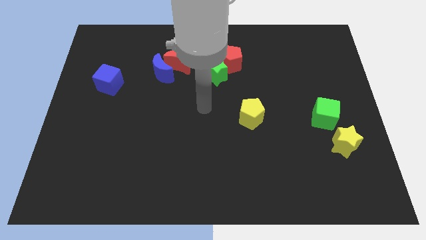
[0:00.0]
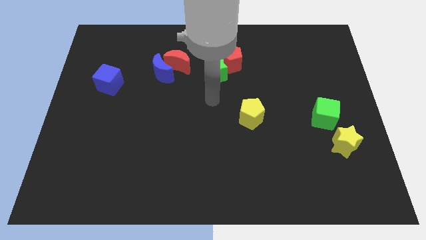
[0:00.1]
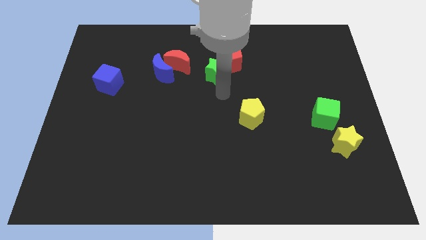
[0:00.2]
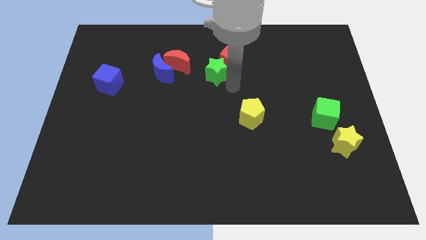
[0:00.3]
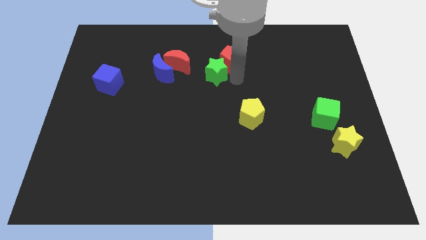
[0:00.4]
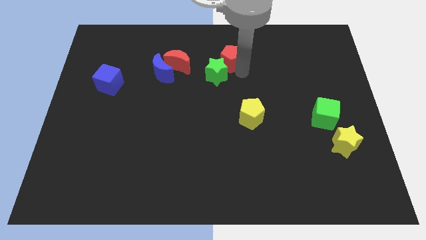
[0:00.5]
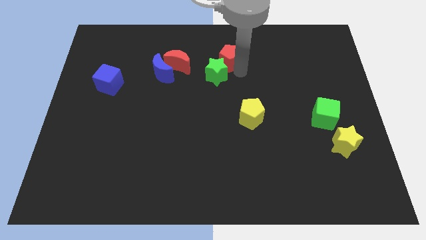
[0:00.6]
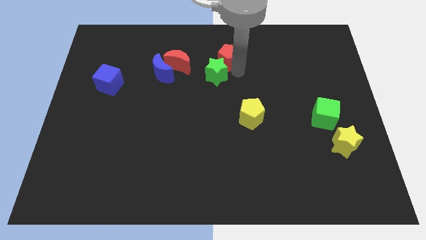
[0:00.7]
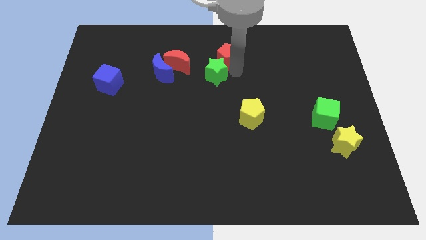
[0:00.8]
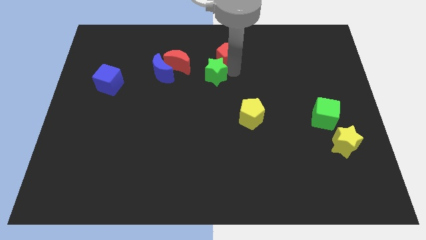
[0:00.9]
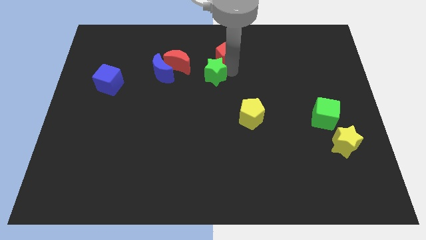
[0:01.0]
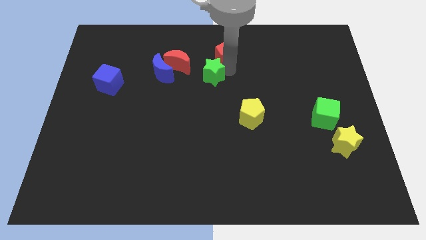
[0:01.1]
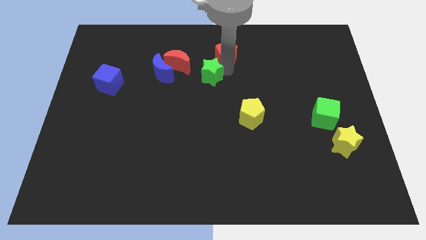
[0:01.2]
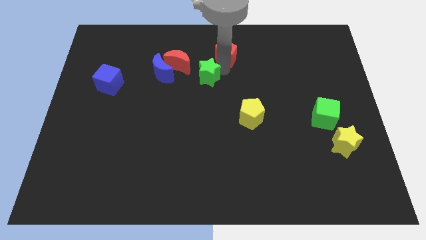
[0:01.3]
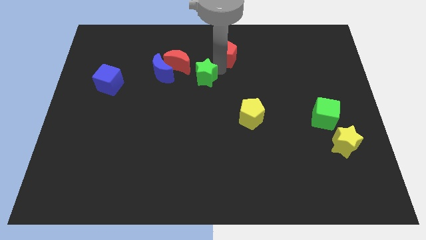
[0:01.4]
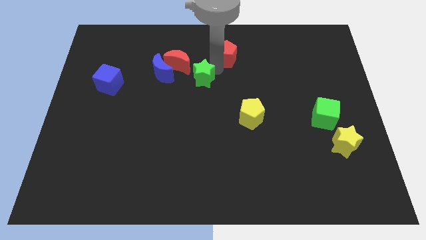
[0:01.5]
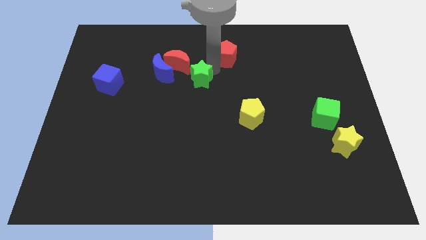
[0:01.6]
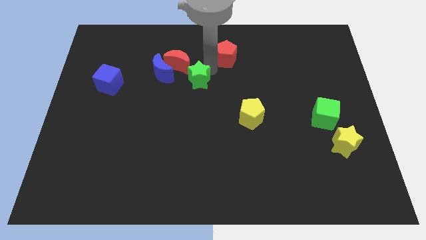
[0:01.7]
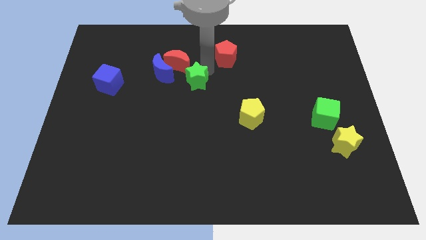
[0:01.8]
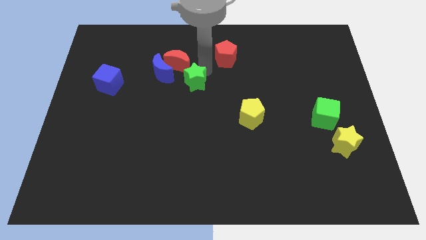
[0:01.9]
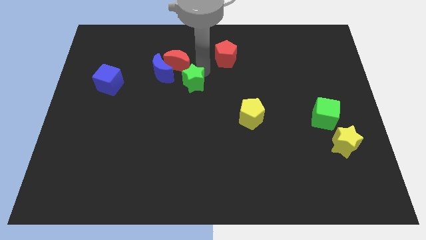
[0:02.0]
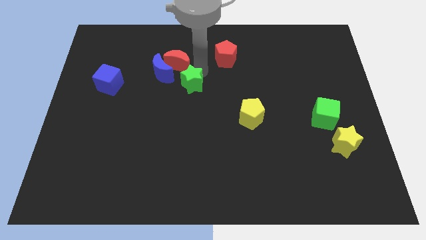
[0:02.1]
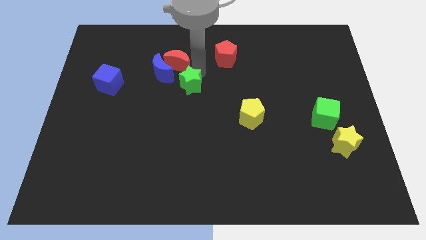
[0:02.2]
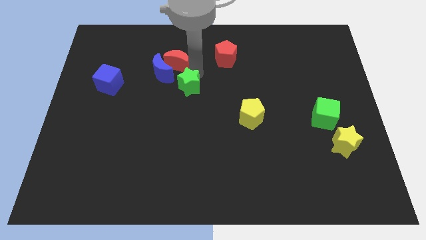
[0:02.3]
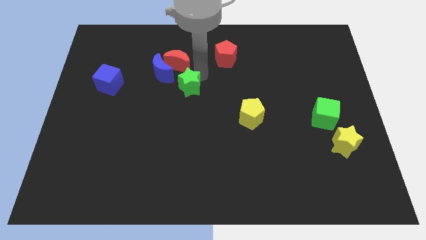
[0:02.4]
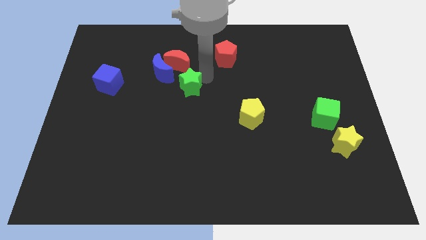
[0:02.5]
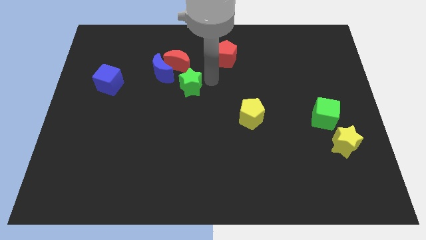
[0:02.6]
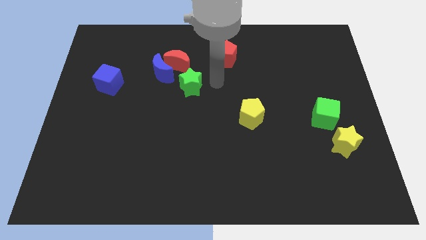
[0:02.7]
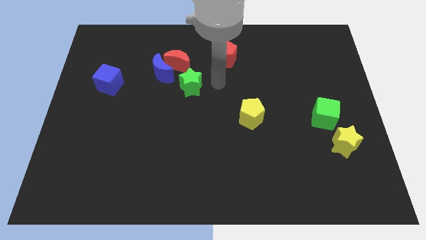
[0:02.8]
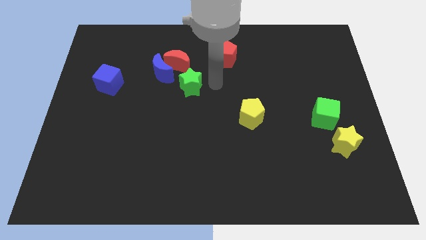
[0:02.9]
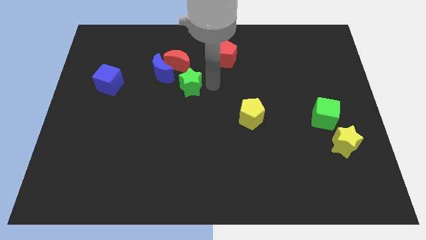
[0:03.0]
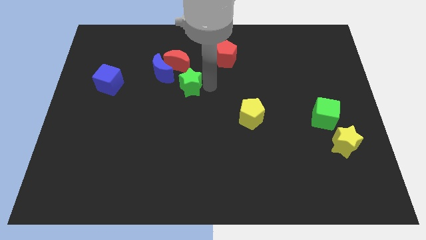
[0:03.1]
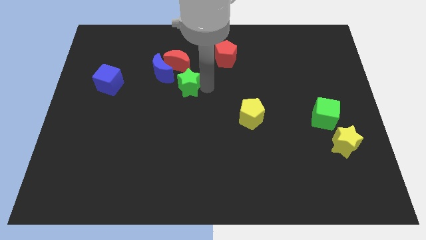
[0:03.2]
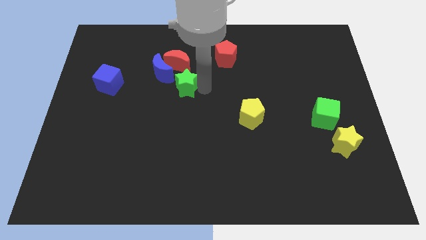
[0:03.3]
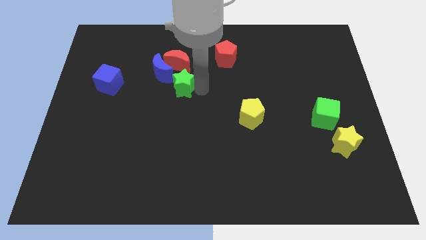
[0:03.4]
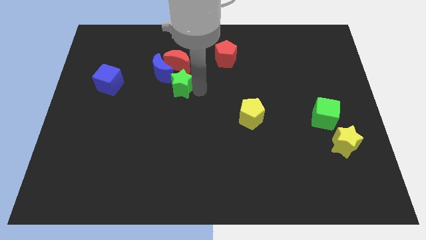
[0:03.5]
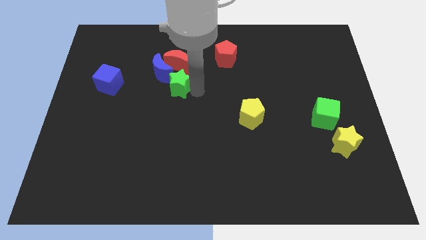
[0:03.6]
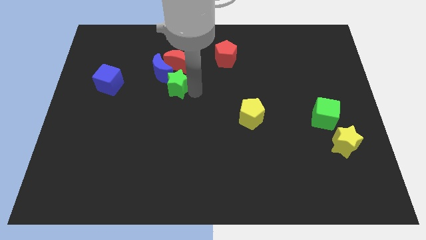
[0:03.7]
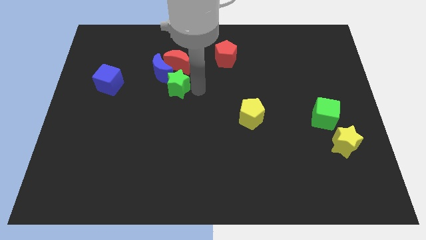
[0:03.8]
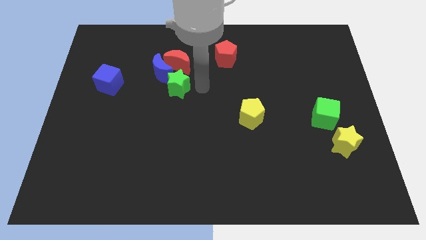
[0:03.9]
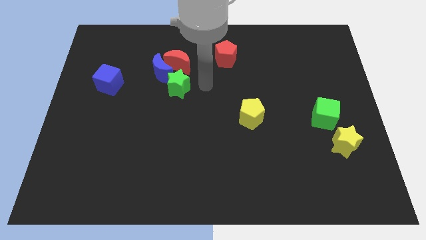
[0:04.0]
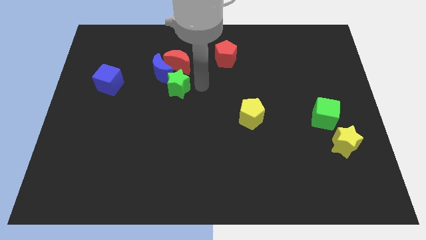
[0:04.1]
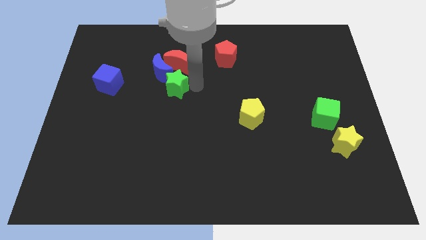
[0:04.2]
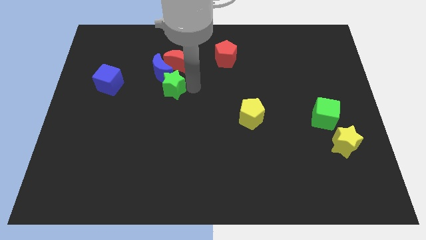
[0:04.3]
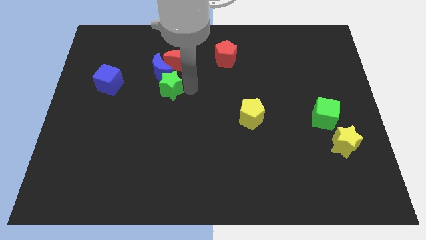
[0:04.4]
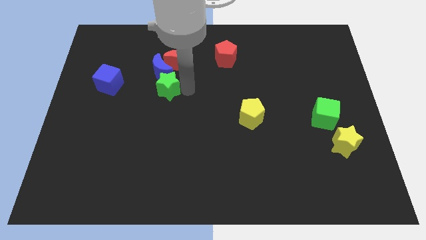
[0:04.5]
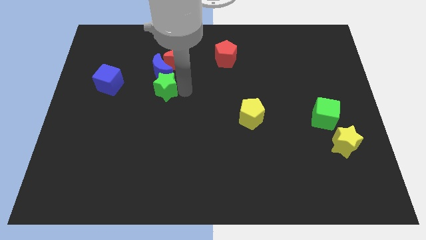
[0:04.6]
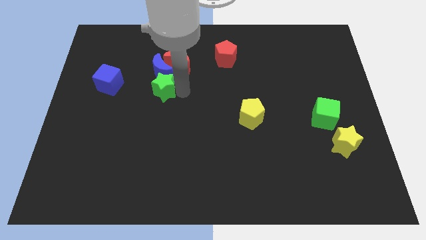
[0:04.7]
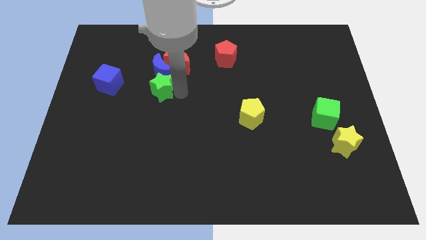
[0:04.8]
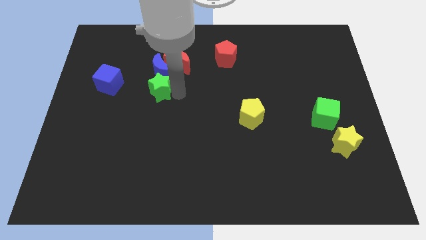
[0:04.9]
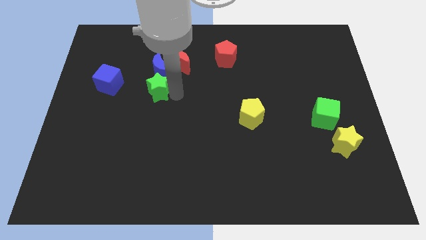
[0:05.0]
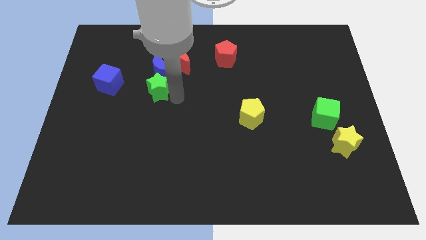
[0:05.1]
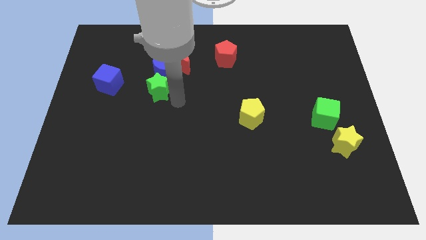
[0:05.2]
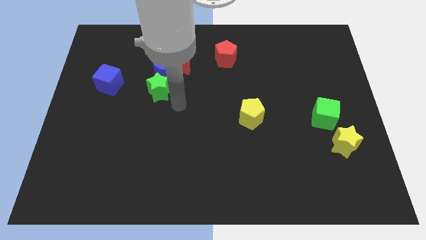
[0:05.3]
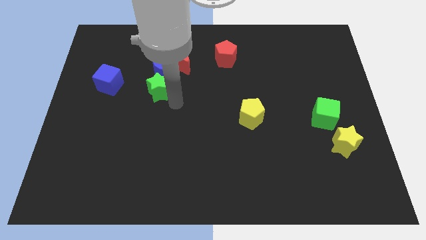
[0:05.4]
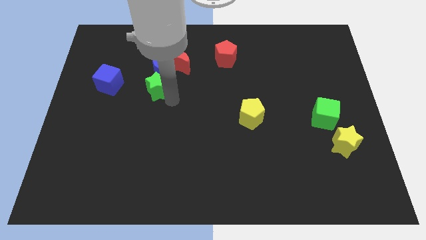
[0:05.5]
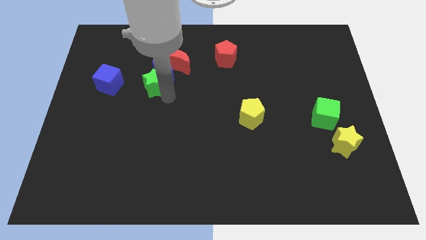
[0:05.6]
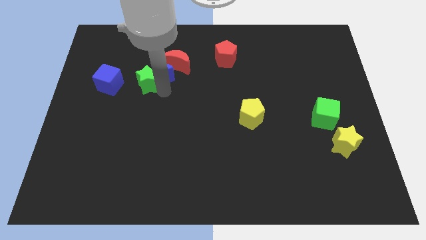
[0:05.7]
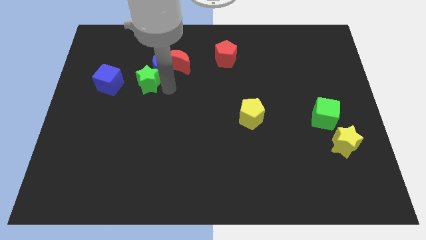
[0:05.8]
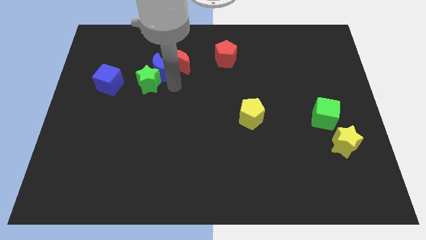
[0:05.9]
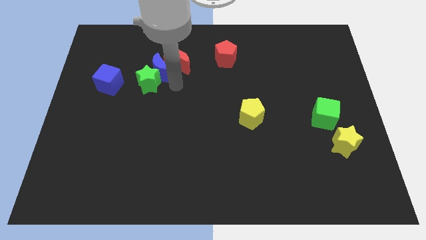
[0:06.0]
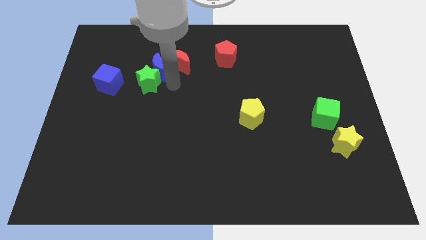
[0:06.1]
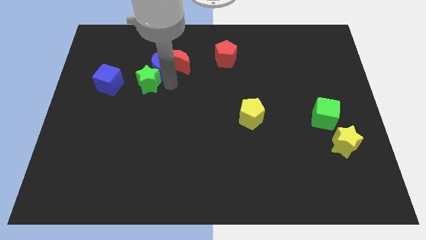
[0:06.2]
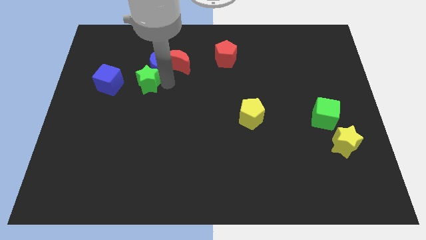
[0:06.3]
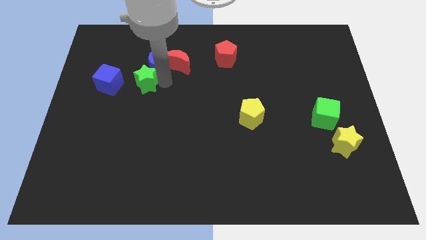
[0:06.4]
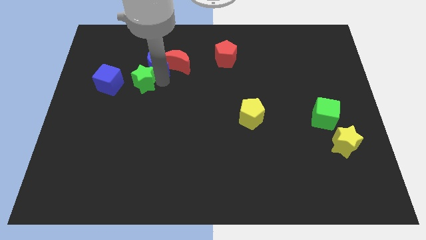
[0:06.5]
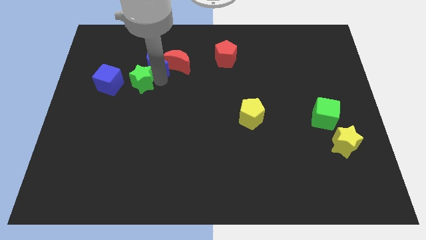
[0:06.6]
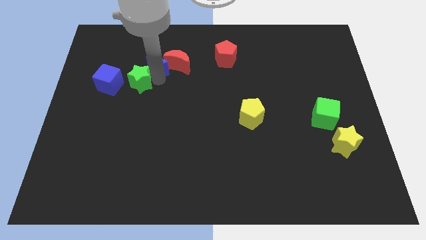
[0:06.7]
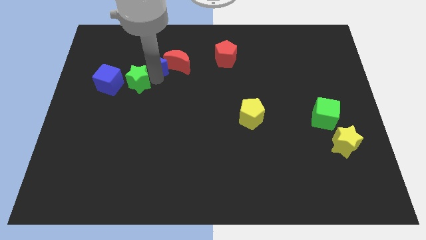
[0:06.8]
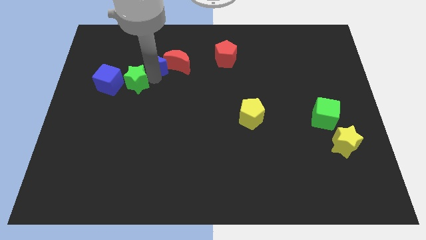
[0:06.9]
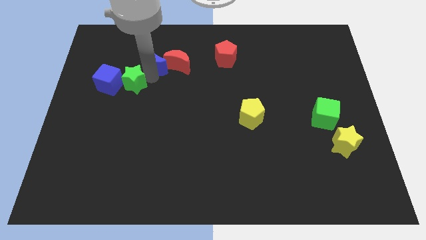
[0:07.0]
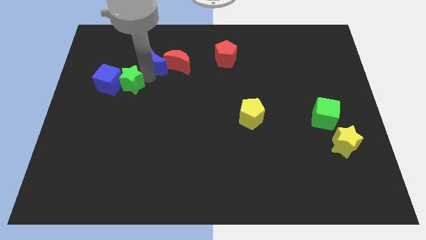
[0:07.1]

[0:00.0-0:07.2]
slide the green star towards the blue cube
